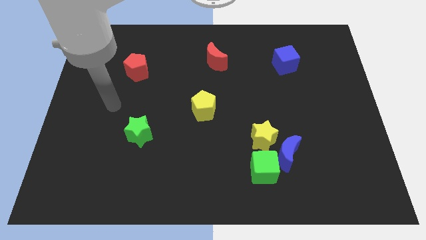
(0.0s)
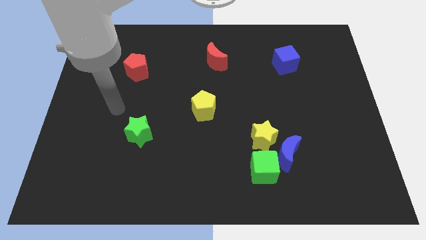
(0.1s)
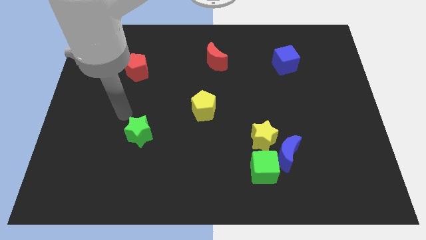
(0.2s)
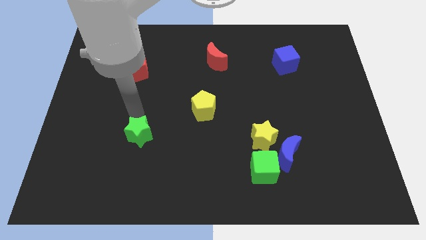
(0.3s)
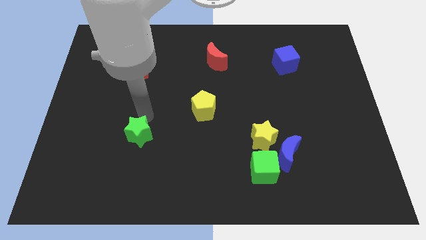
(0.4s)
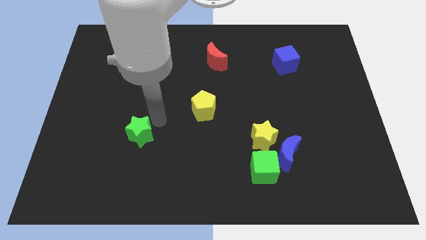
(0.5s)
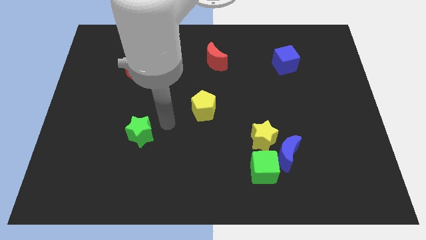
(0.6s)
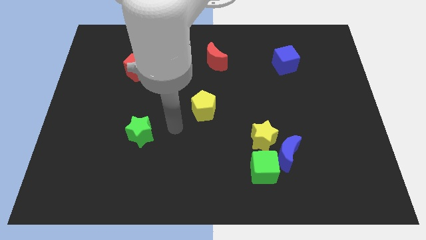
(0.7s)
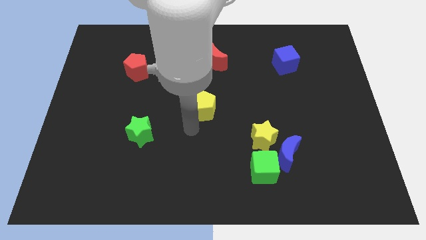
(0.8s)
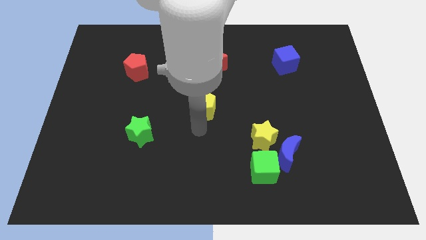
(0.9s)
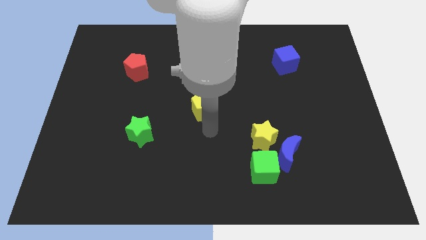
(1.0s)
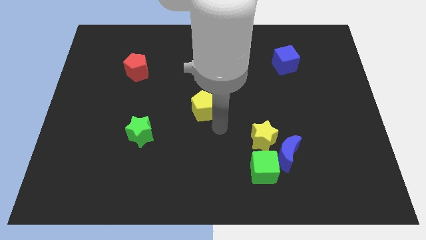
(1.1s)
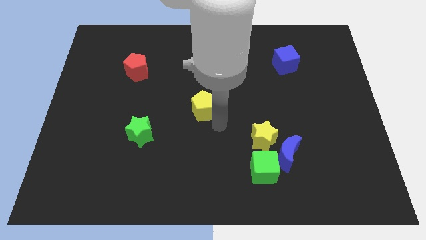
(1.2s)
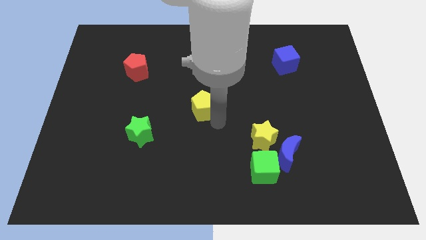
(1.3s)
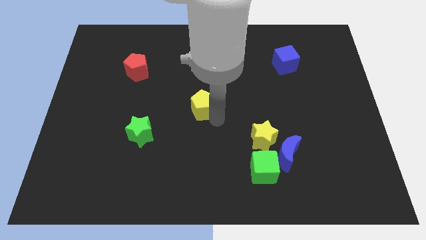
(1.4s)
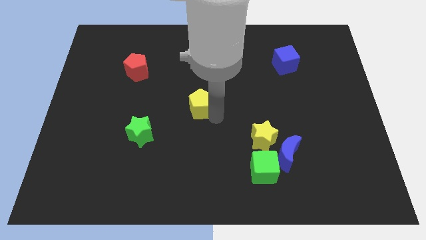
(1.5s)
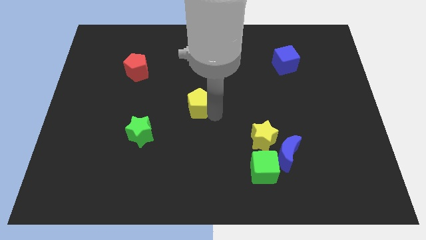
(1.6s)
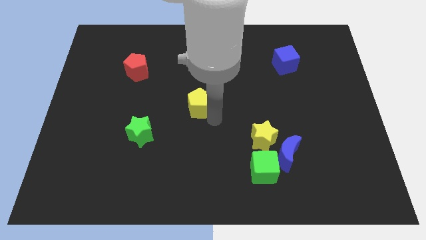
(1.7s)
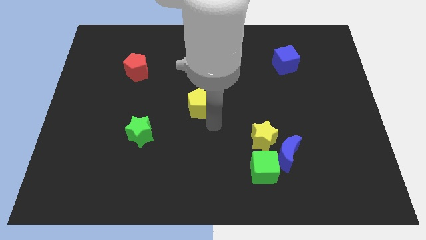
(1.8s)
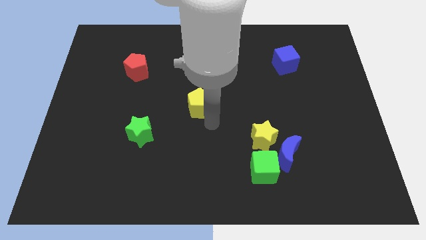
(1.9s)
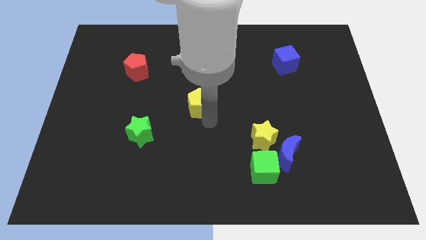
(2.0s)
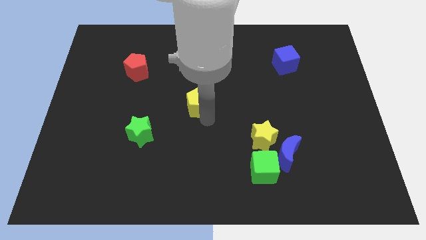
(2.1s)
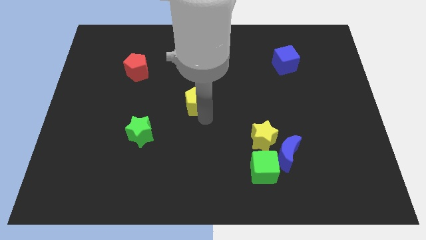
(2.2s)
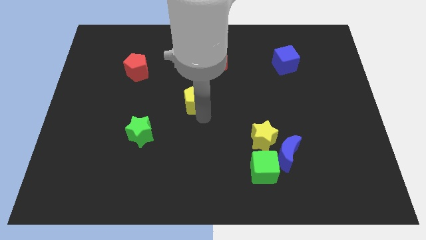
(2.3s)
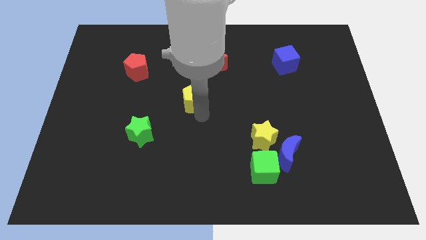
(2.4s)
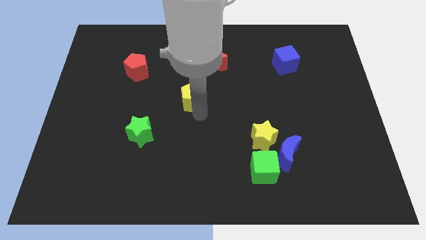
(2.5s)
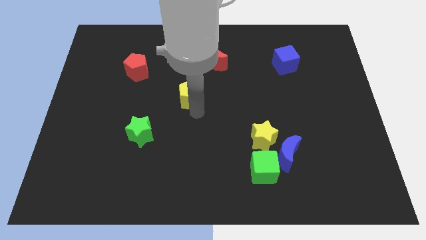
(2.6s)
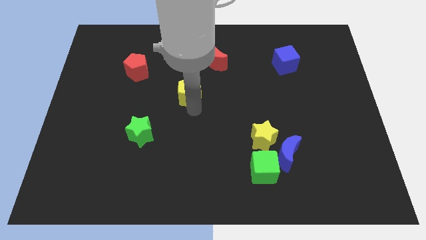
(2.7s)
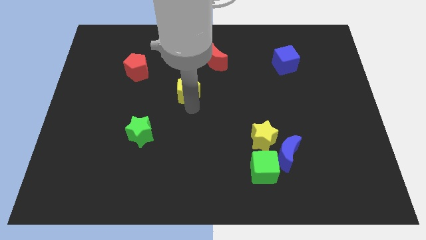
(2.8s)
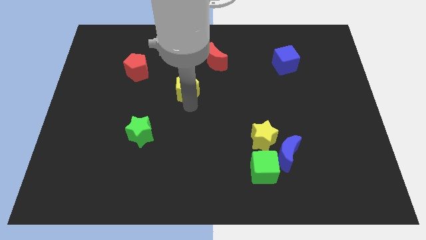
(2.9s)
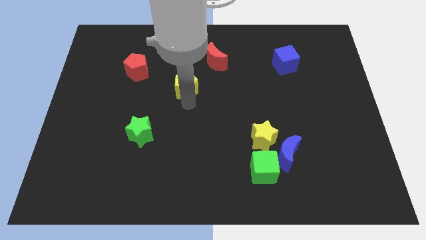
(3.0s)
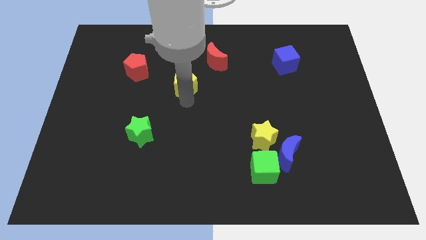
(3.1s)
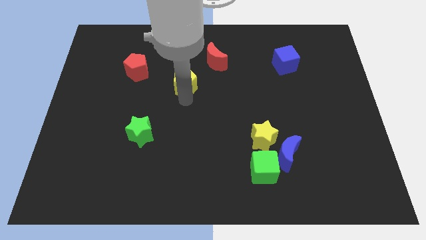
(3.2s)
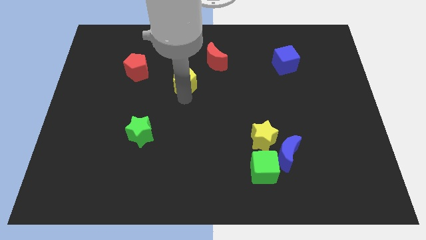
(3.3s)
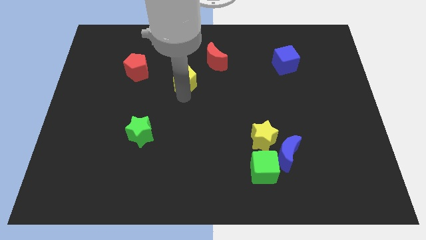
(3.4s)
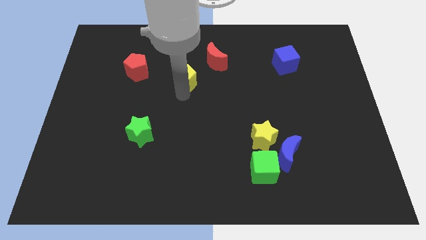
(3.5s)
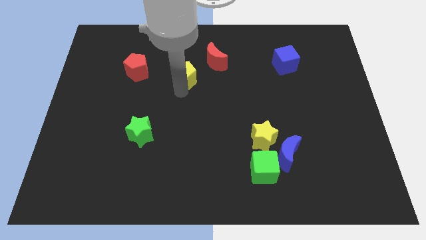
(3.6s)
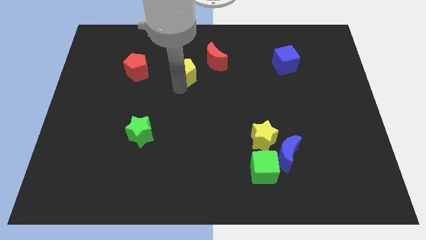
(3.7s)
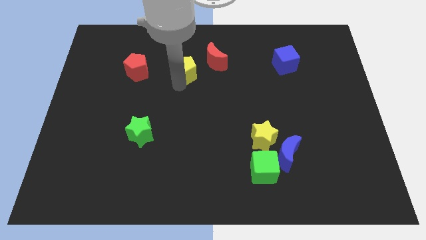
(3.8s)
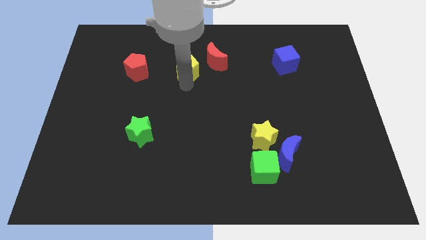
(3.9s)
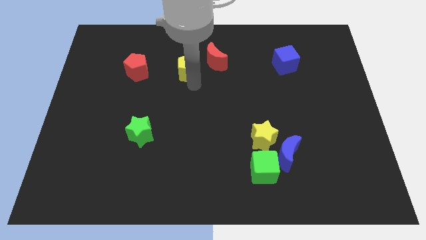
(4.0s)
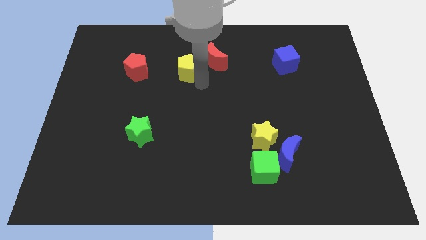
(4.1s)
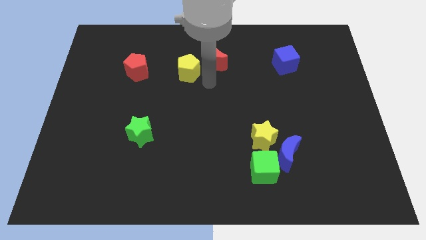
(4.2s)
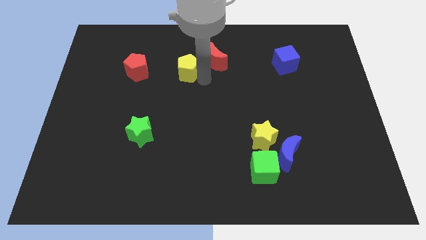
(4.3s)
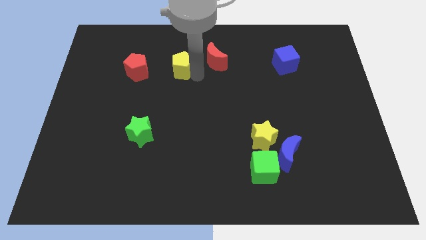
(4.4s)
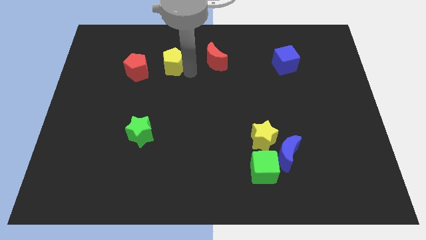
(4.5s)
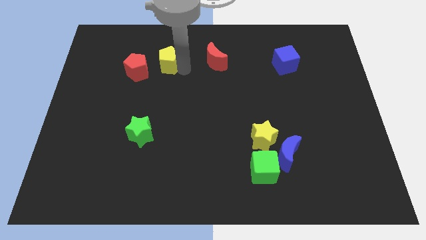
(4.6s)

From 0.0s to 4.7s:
put the yellow pentagon diagonally up and to the right of the red pentagon

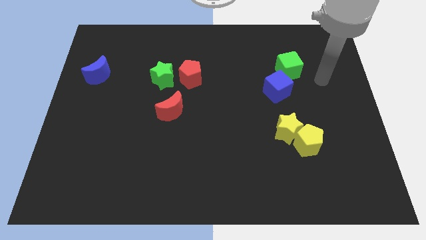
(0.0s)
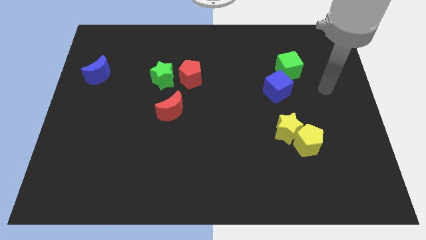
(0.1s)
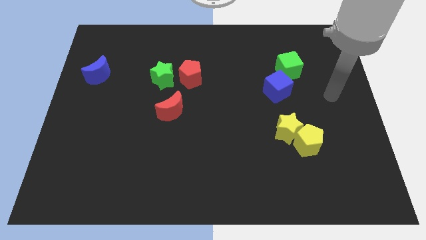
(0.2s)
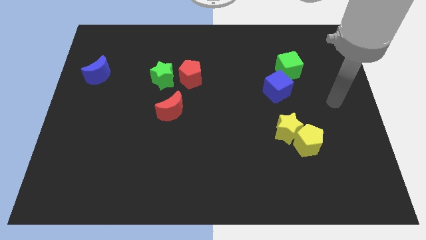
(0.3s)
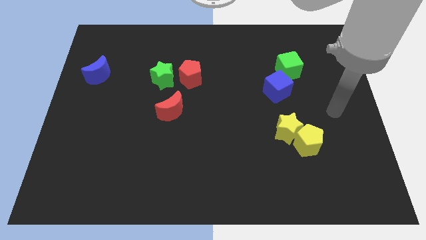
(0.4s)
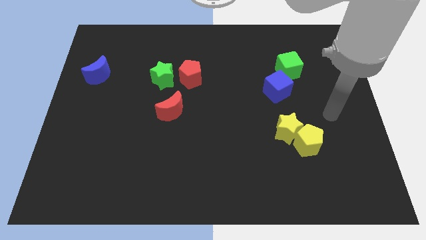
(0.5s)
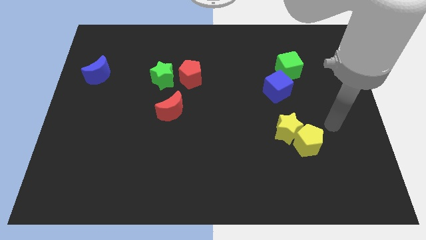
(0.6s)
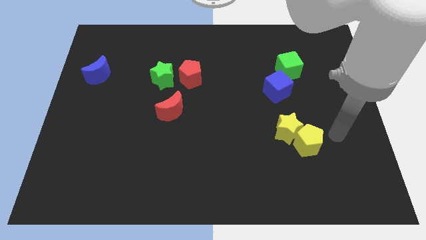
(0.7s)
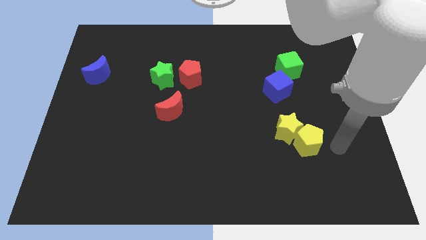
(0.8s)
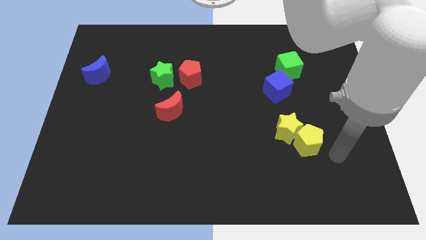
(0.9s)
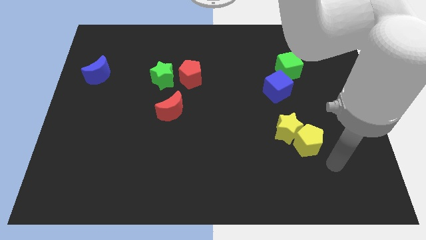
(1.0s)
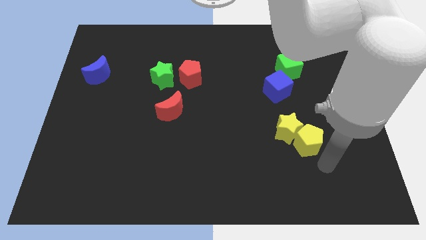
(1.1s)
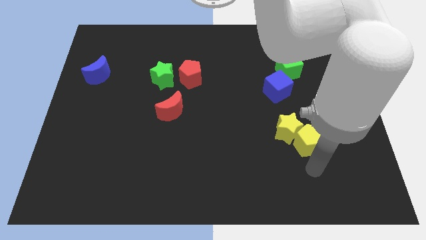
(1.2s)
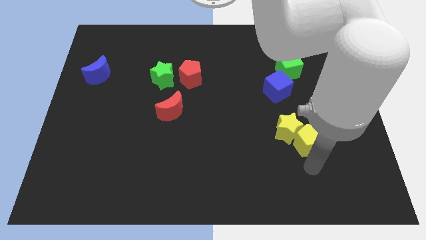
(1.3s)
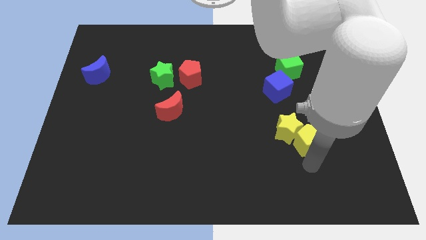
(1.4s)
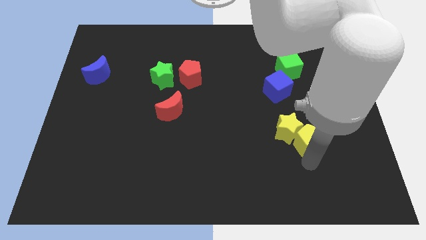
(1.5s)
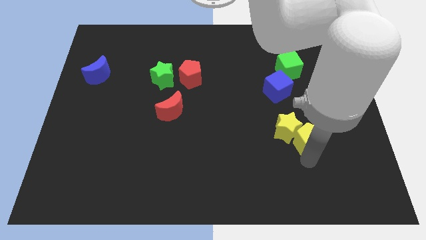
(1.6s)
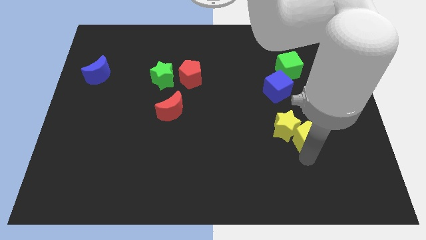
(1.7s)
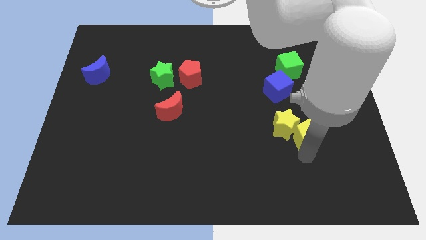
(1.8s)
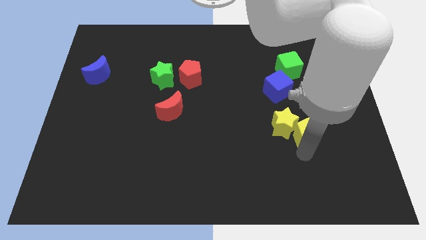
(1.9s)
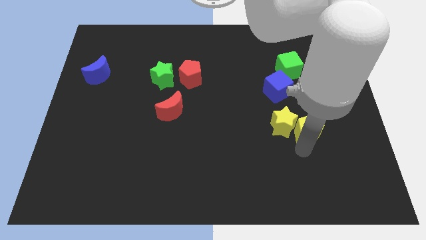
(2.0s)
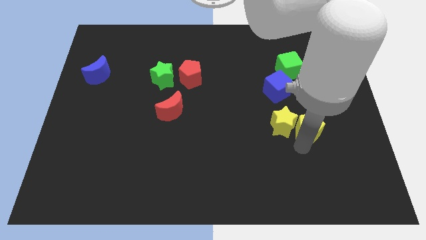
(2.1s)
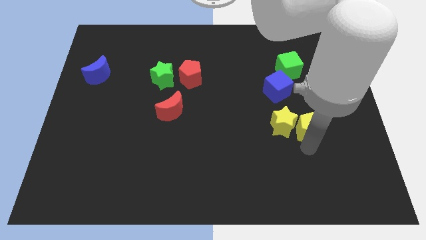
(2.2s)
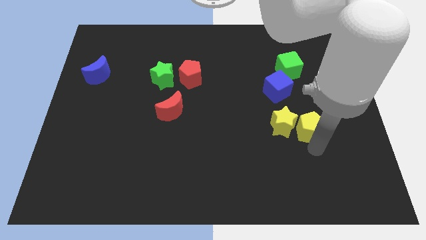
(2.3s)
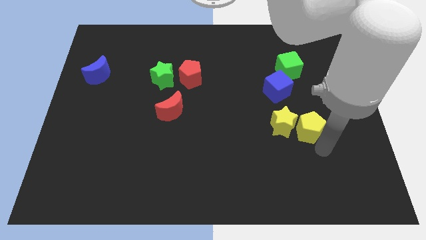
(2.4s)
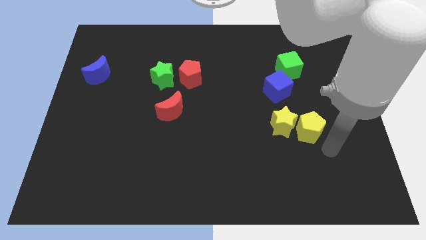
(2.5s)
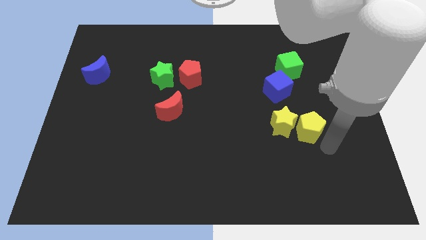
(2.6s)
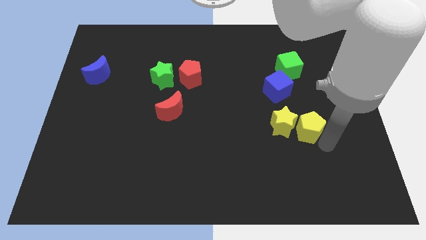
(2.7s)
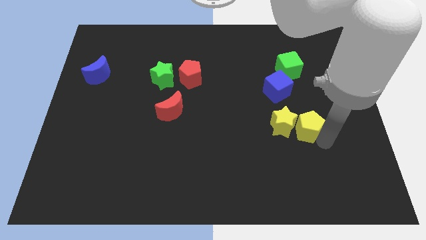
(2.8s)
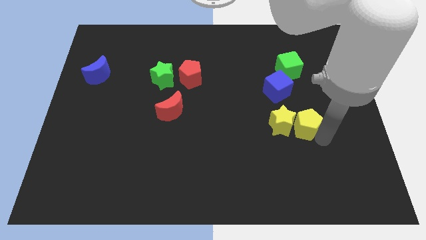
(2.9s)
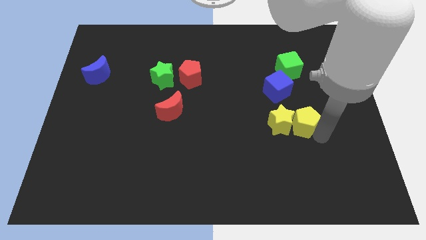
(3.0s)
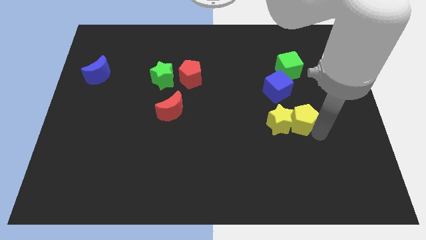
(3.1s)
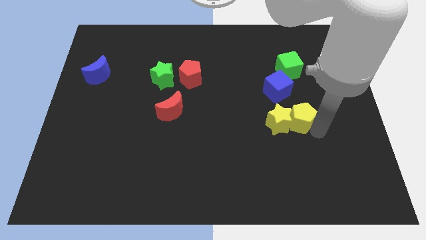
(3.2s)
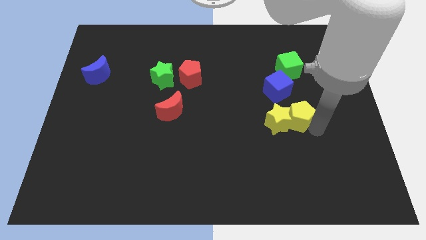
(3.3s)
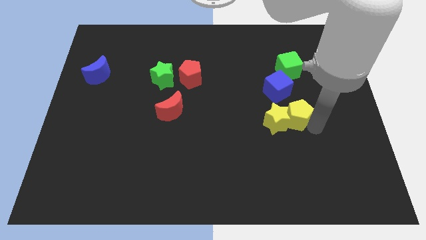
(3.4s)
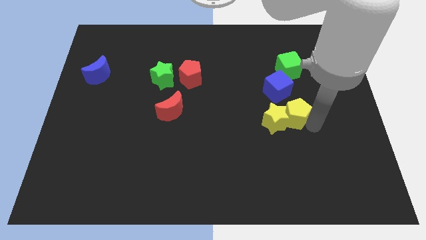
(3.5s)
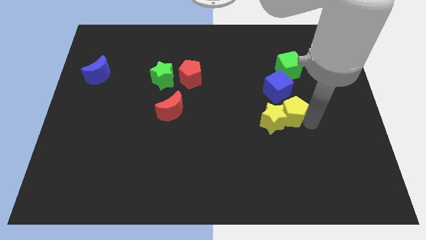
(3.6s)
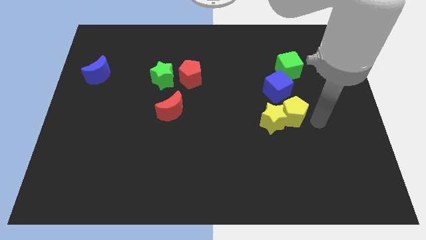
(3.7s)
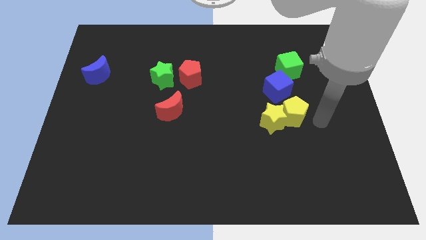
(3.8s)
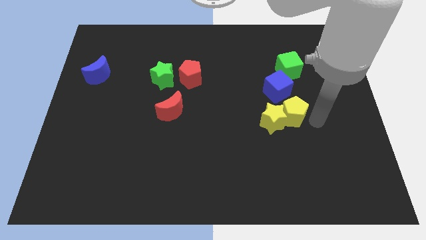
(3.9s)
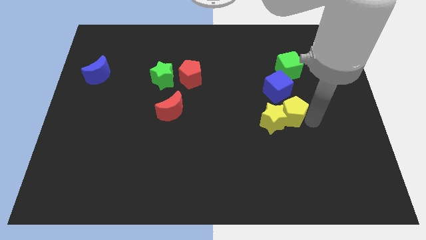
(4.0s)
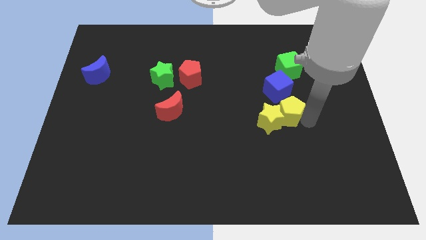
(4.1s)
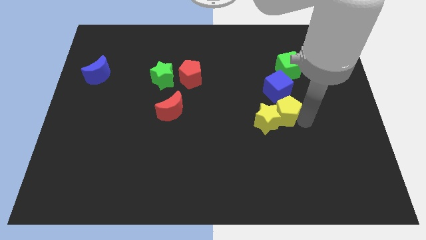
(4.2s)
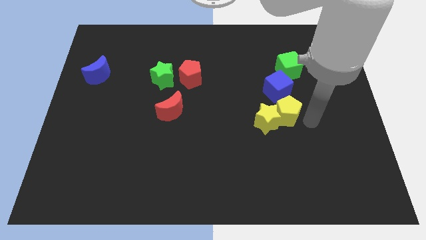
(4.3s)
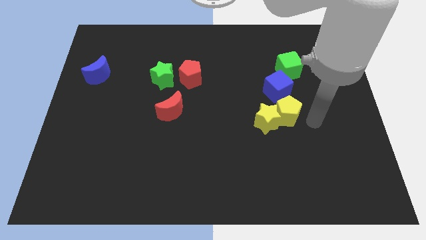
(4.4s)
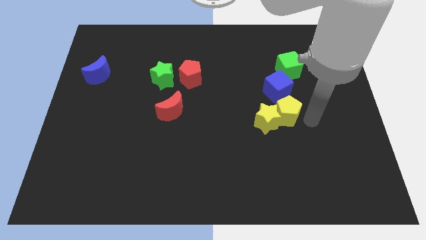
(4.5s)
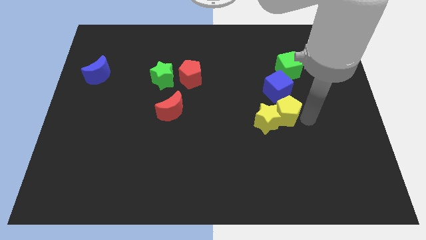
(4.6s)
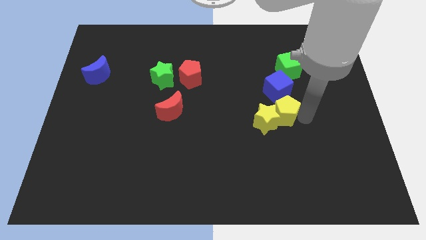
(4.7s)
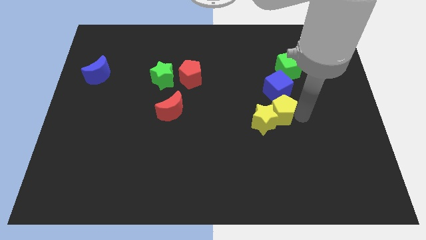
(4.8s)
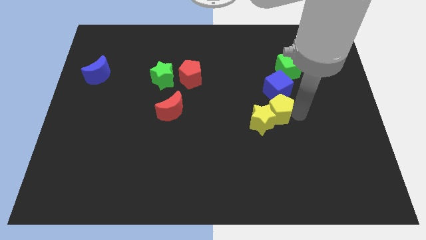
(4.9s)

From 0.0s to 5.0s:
move the yellow pentagon to the bottom left of the blue cube
